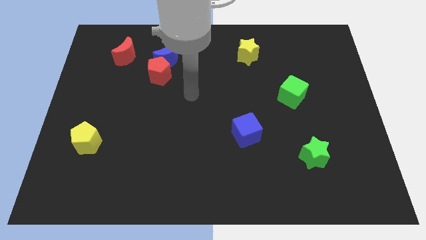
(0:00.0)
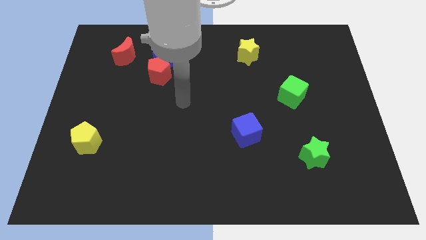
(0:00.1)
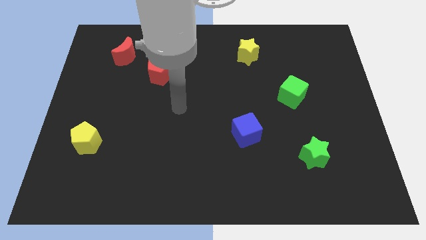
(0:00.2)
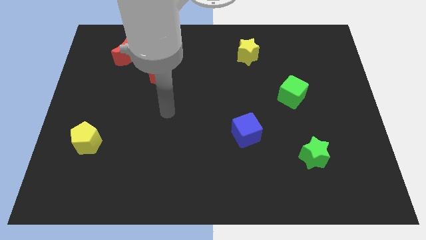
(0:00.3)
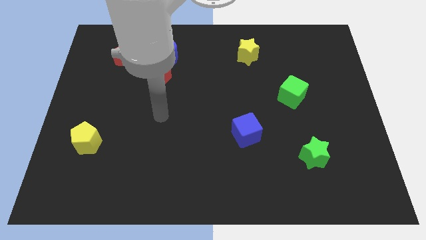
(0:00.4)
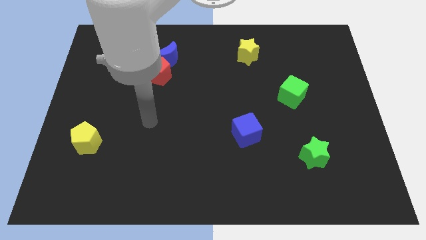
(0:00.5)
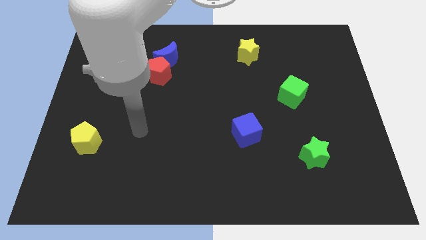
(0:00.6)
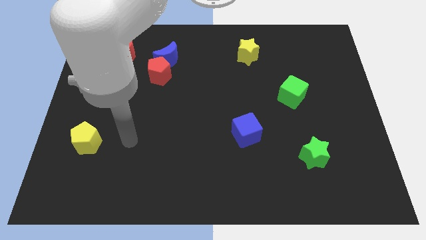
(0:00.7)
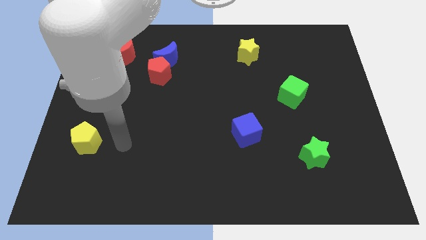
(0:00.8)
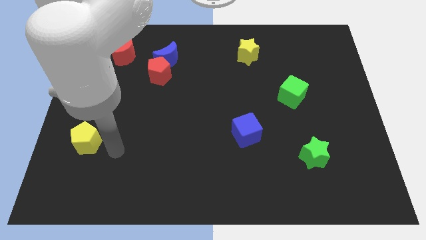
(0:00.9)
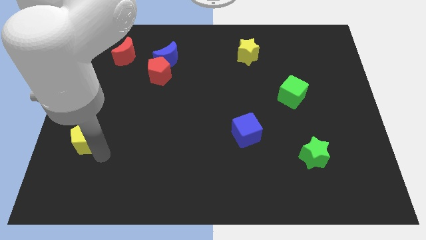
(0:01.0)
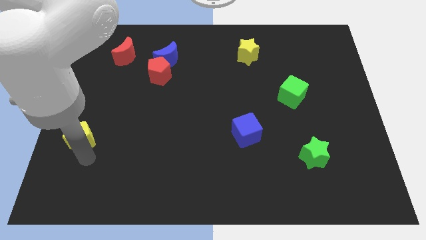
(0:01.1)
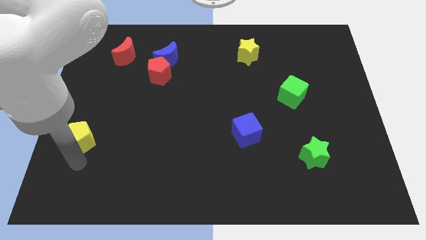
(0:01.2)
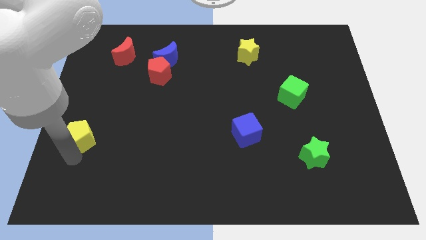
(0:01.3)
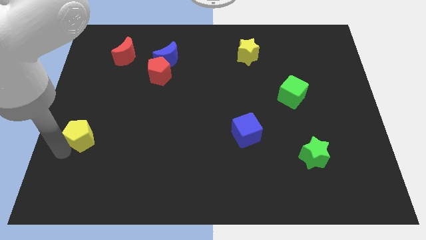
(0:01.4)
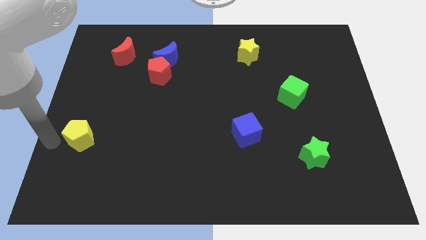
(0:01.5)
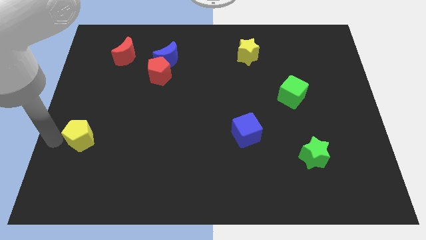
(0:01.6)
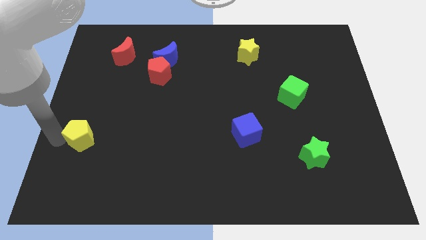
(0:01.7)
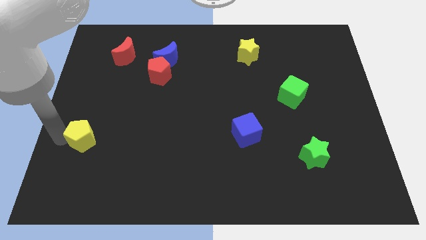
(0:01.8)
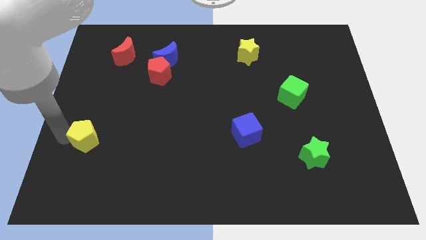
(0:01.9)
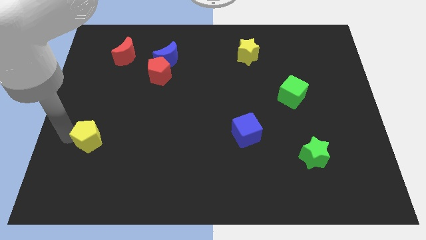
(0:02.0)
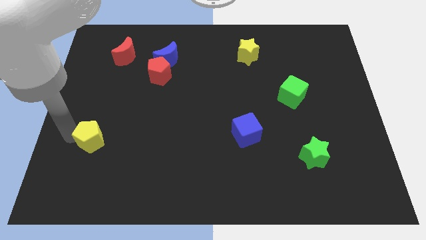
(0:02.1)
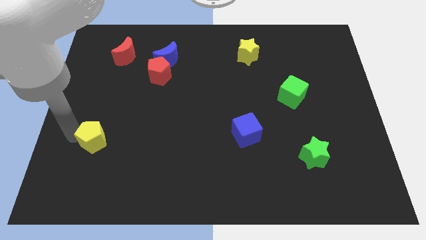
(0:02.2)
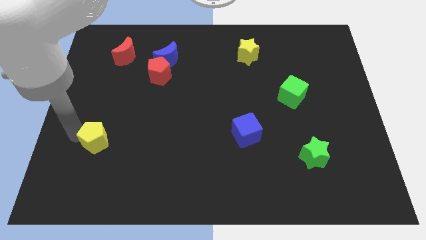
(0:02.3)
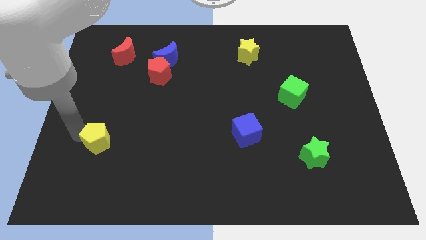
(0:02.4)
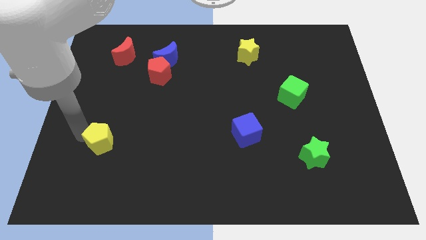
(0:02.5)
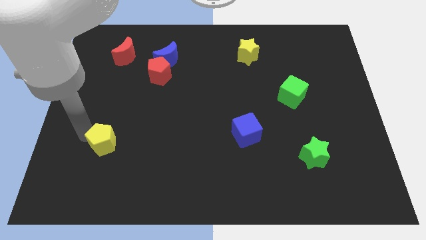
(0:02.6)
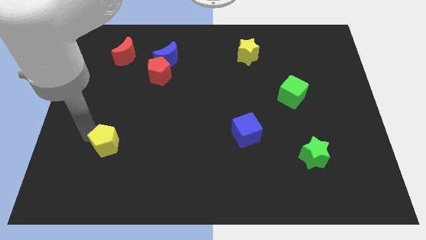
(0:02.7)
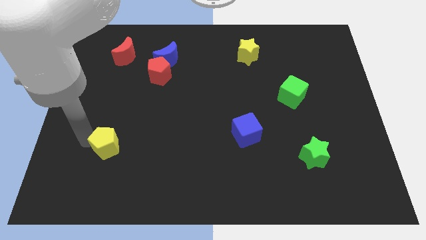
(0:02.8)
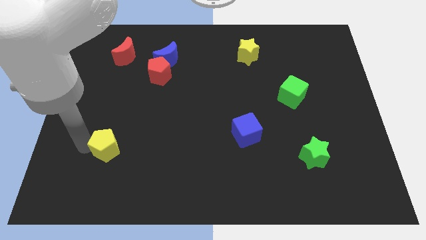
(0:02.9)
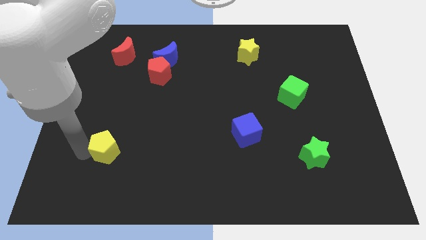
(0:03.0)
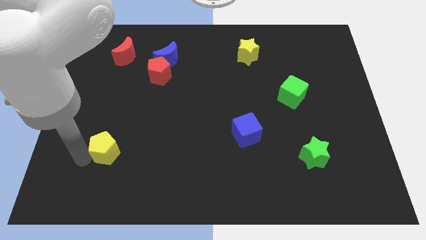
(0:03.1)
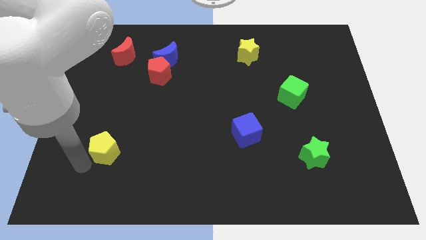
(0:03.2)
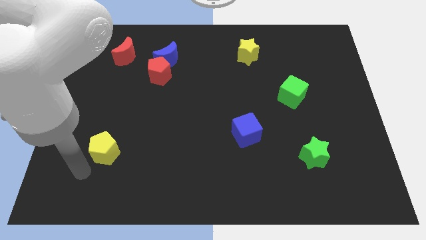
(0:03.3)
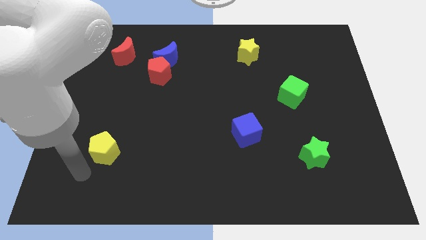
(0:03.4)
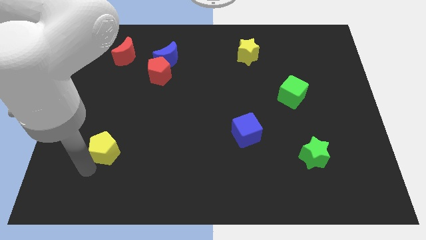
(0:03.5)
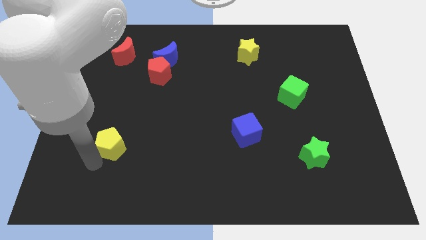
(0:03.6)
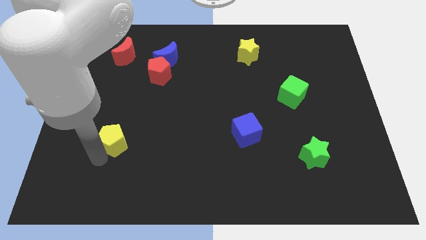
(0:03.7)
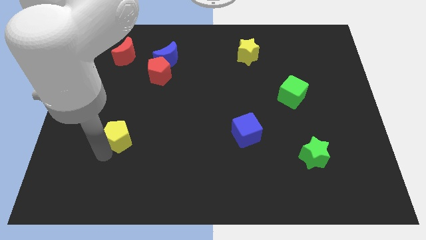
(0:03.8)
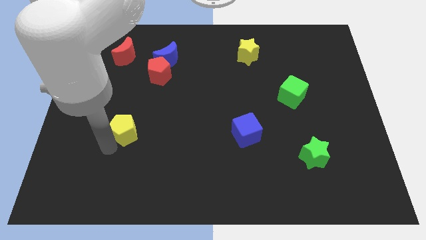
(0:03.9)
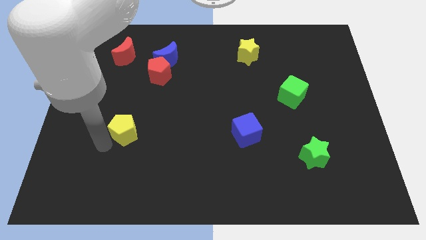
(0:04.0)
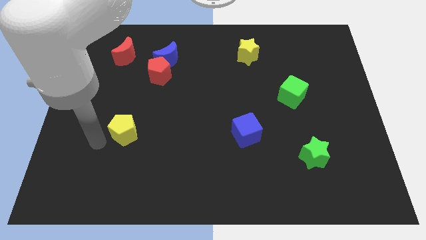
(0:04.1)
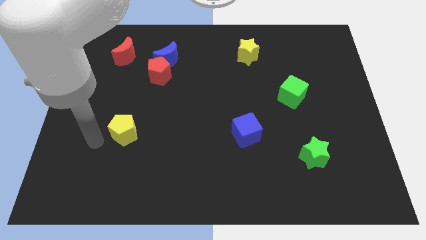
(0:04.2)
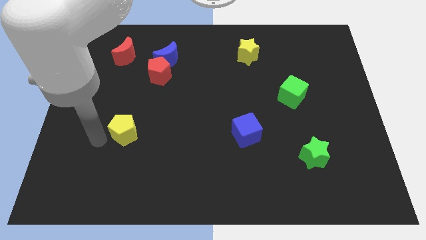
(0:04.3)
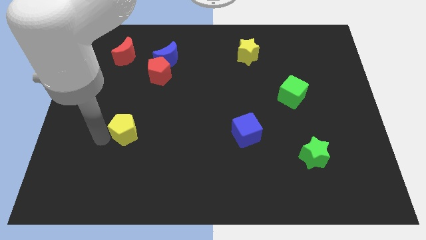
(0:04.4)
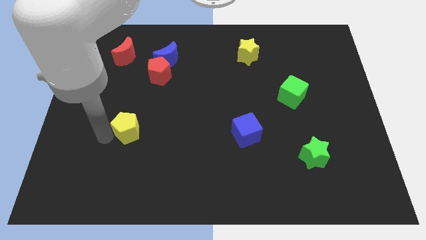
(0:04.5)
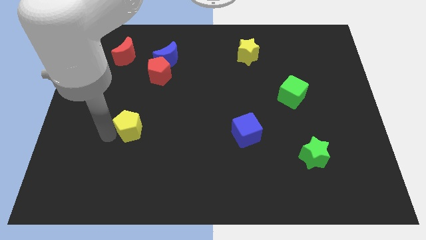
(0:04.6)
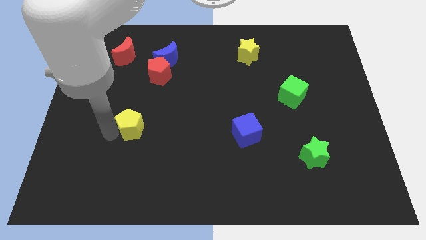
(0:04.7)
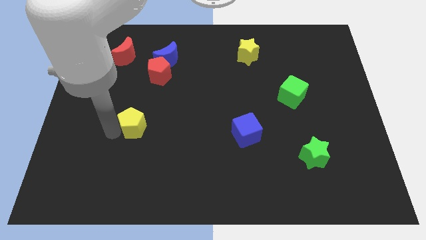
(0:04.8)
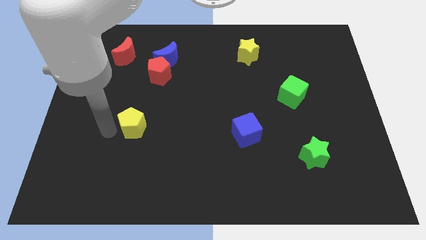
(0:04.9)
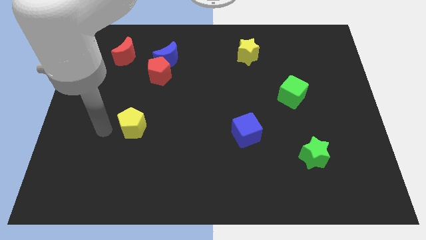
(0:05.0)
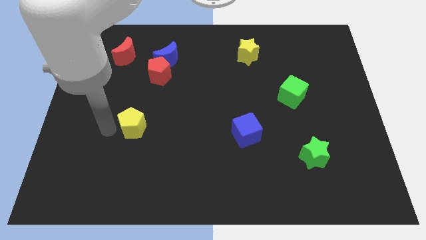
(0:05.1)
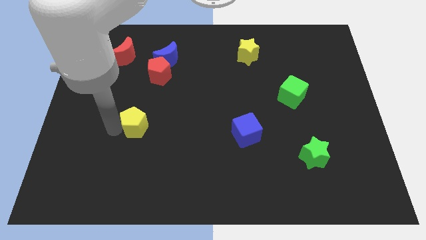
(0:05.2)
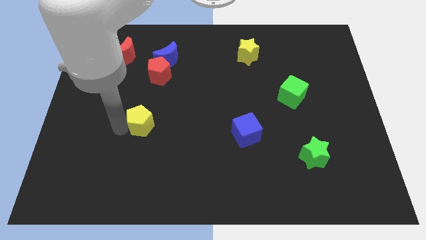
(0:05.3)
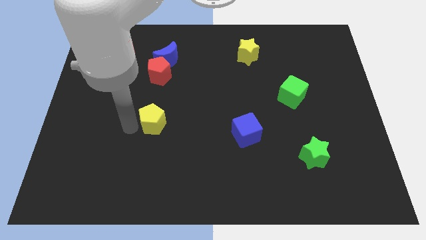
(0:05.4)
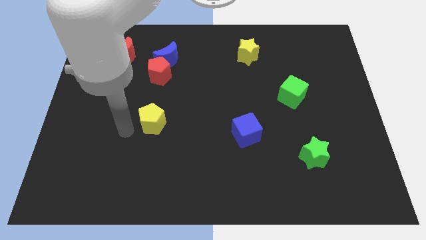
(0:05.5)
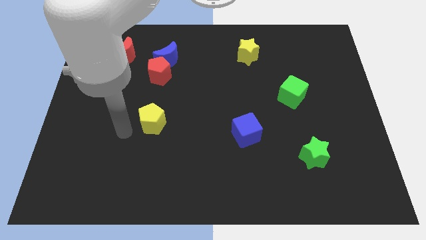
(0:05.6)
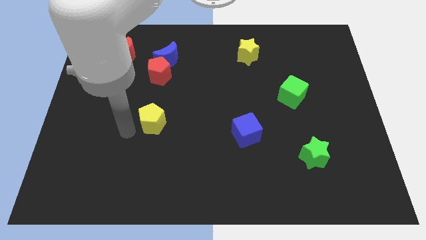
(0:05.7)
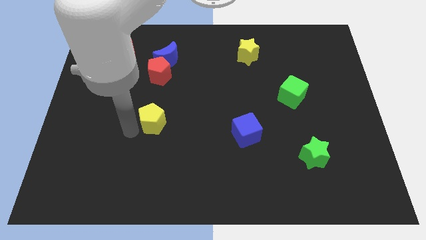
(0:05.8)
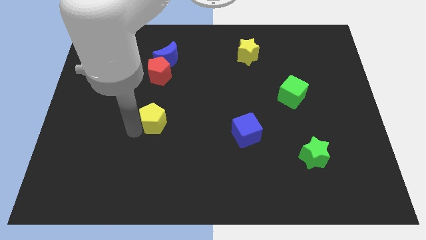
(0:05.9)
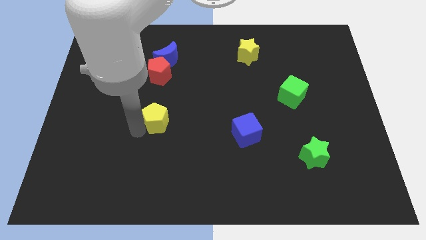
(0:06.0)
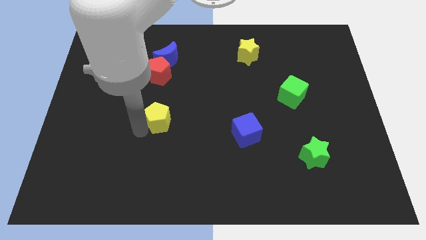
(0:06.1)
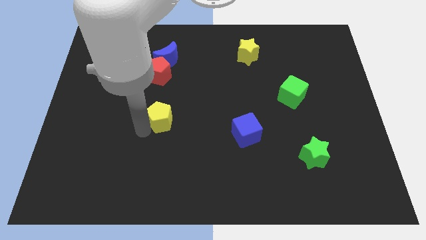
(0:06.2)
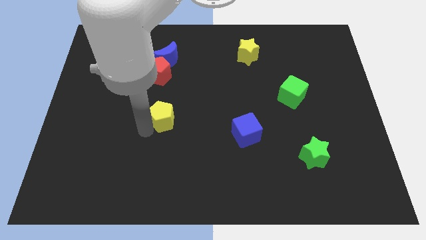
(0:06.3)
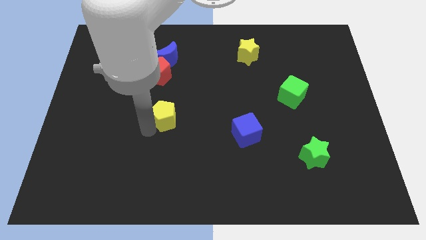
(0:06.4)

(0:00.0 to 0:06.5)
push the yellow pentagon to the middle of the board
